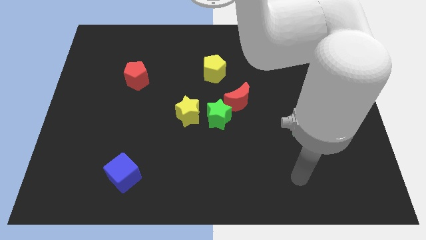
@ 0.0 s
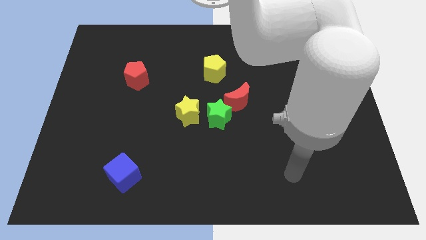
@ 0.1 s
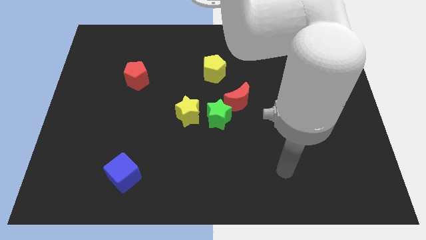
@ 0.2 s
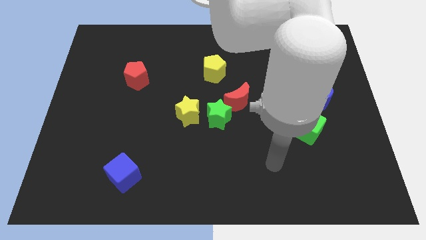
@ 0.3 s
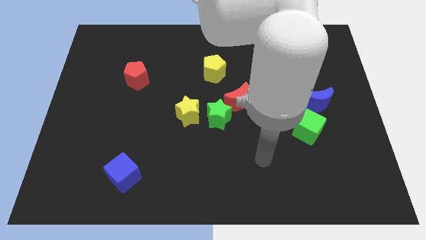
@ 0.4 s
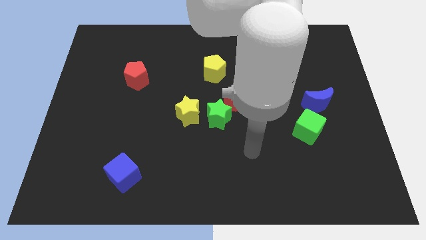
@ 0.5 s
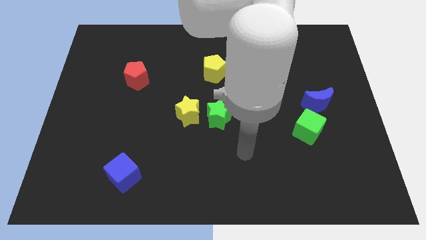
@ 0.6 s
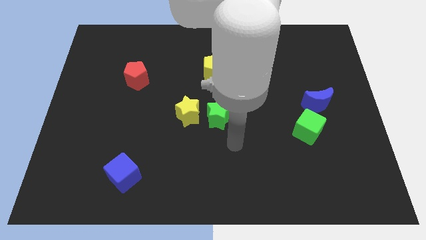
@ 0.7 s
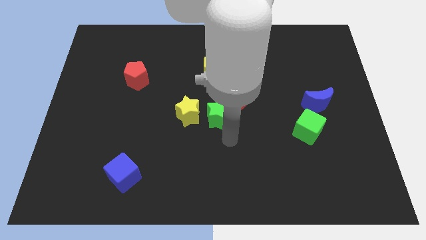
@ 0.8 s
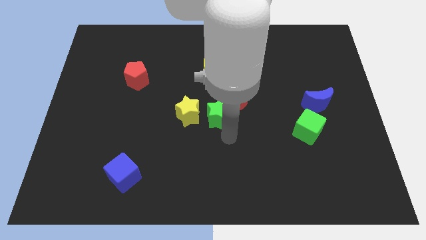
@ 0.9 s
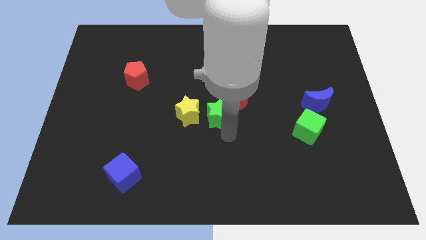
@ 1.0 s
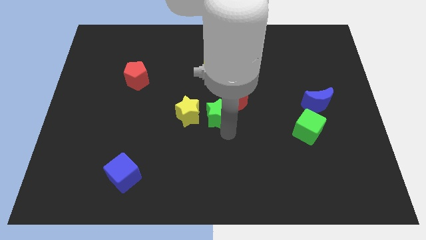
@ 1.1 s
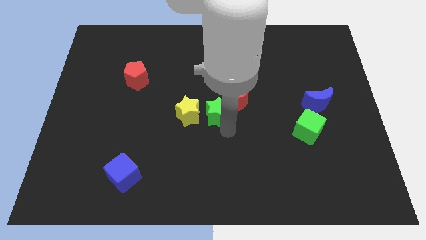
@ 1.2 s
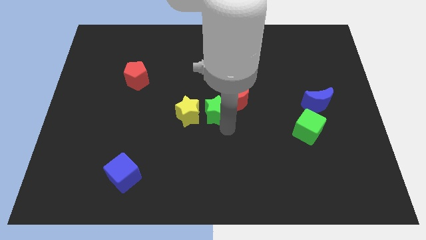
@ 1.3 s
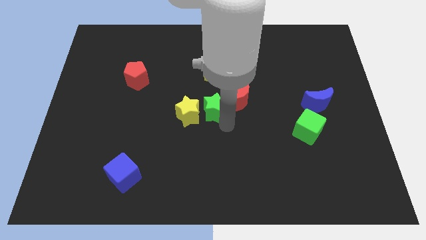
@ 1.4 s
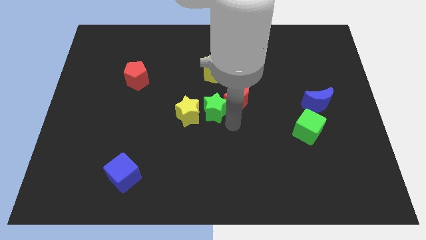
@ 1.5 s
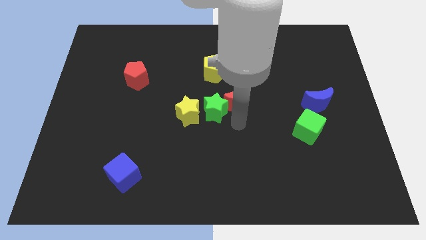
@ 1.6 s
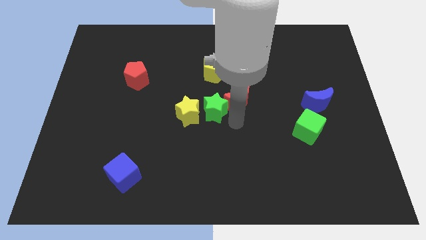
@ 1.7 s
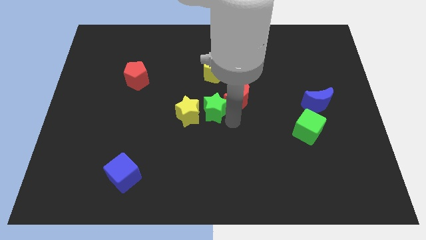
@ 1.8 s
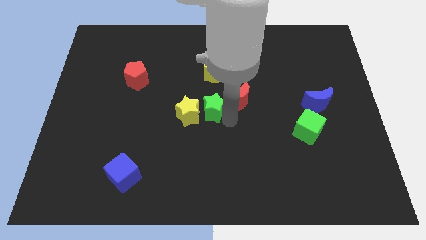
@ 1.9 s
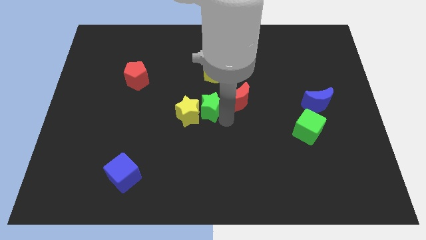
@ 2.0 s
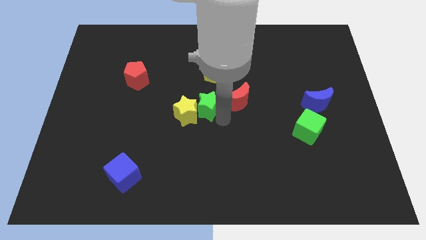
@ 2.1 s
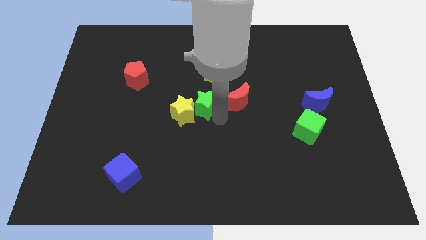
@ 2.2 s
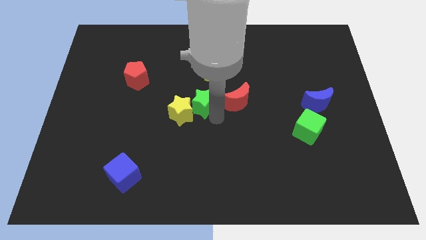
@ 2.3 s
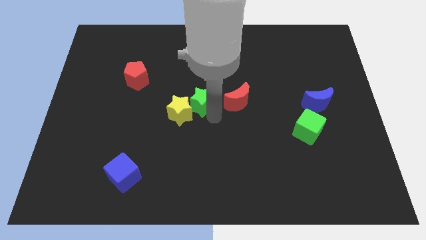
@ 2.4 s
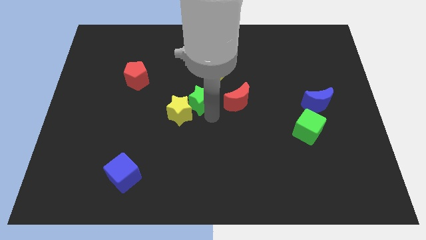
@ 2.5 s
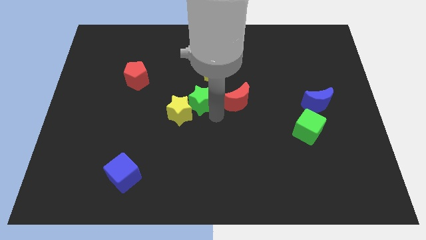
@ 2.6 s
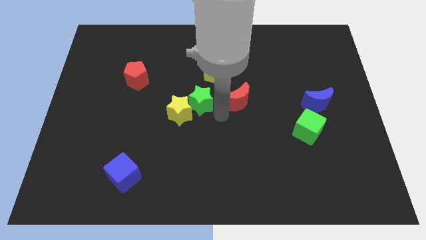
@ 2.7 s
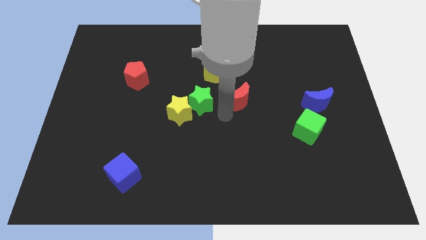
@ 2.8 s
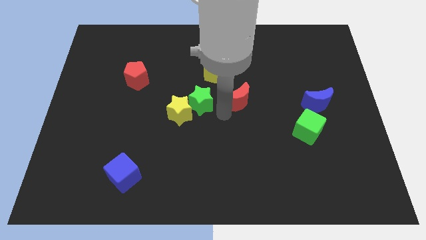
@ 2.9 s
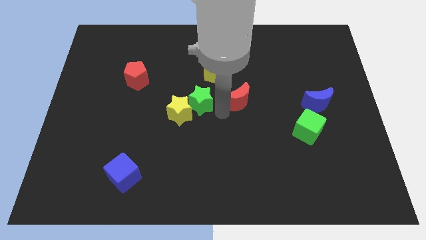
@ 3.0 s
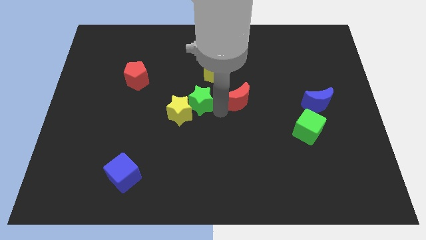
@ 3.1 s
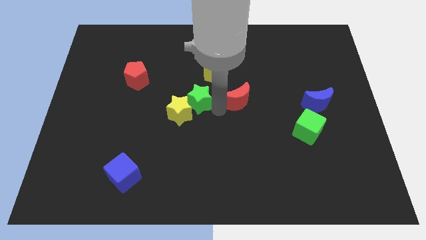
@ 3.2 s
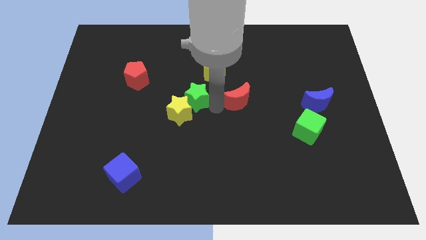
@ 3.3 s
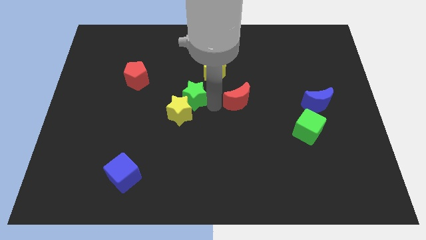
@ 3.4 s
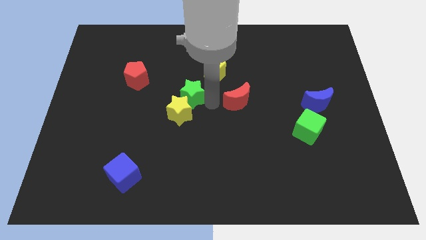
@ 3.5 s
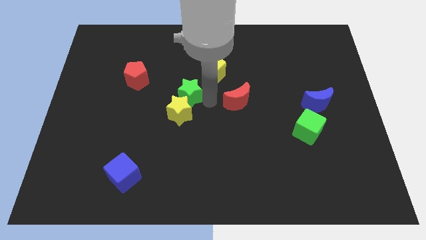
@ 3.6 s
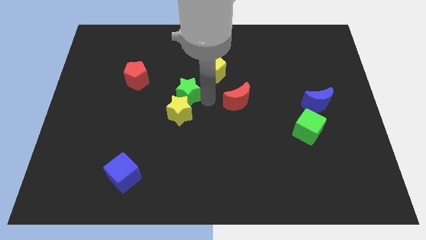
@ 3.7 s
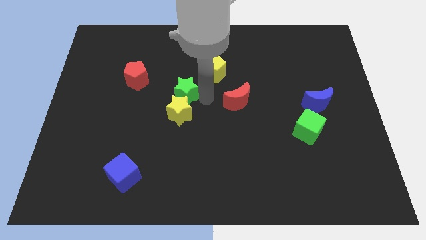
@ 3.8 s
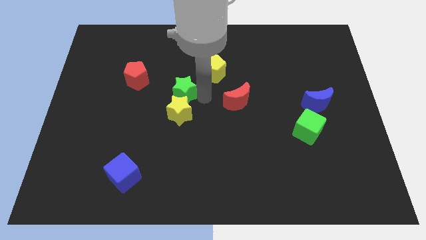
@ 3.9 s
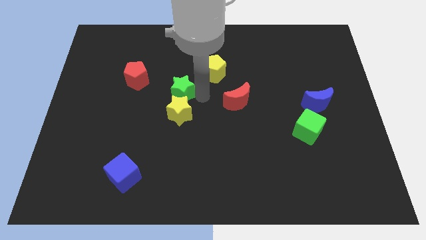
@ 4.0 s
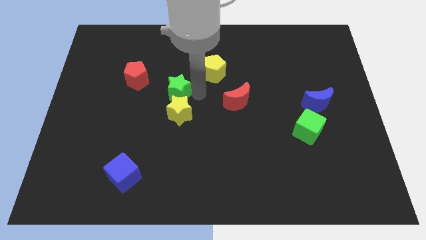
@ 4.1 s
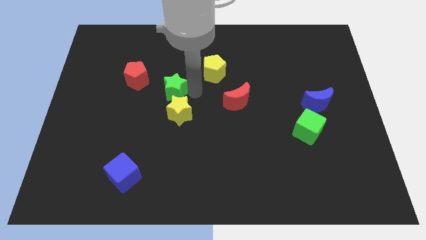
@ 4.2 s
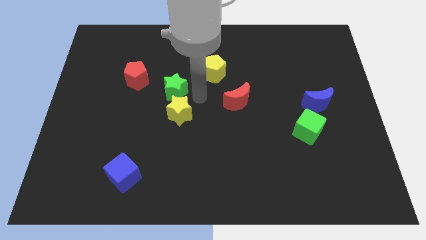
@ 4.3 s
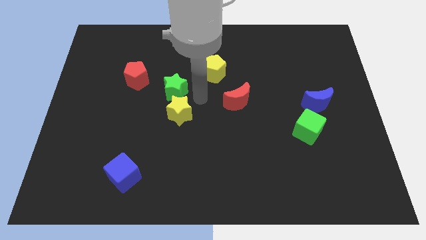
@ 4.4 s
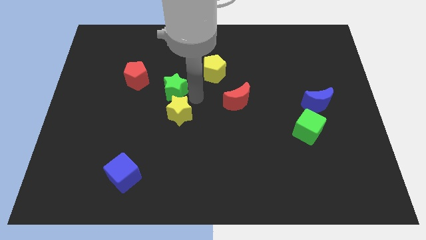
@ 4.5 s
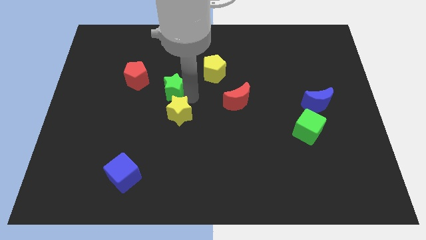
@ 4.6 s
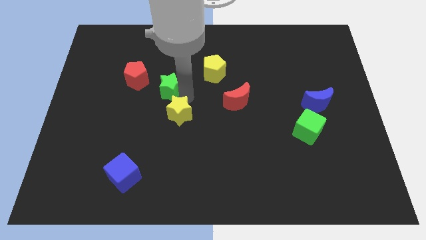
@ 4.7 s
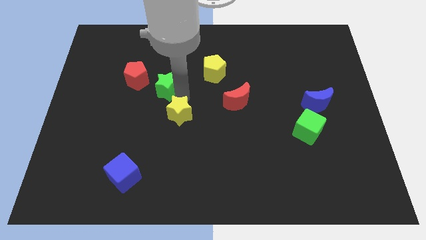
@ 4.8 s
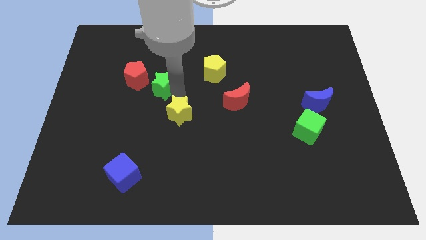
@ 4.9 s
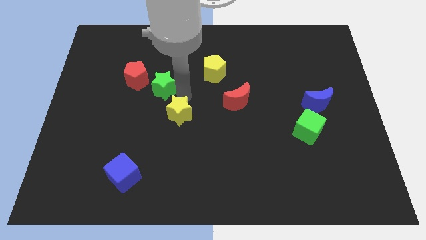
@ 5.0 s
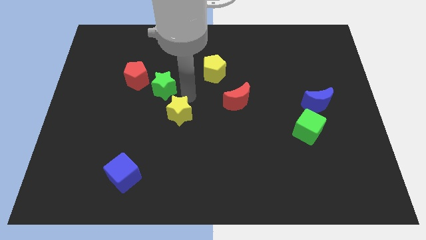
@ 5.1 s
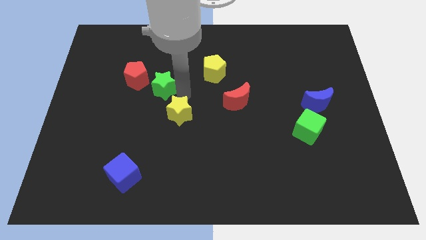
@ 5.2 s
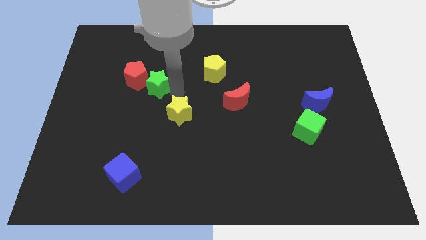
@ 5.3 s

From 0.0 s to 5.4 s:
push the green star to the red pentagon

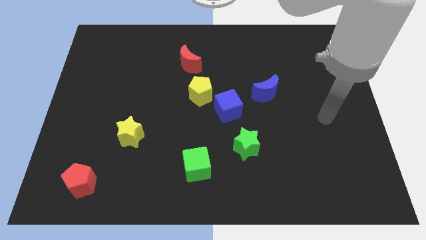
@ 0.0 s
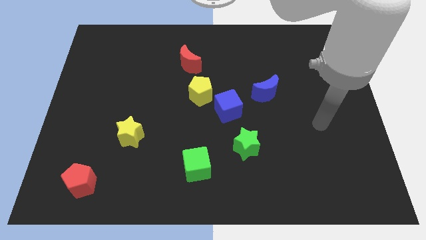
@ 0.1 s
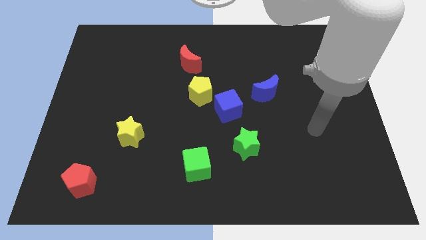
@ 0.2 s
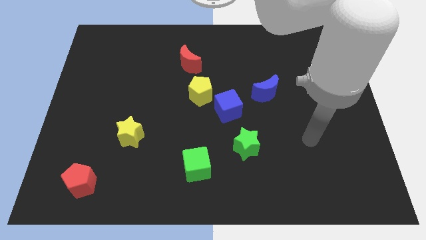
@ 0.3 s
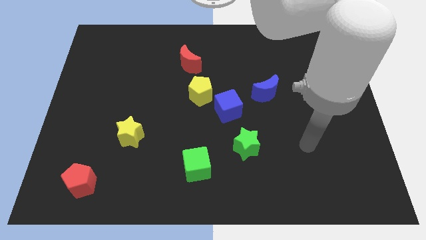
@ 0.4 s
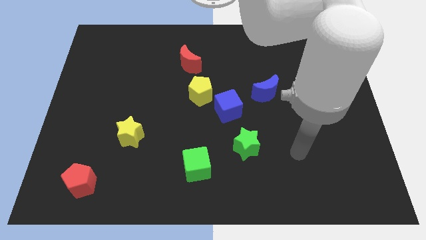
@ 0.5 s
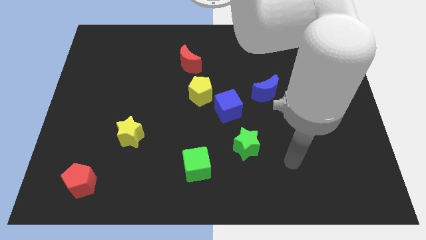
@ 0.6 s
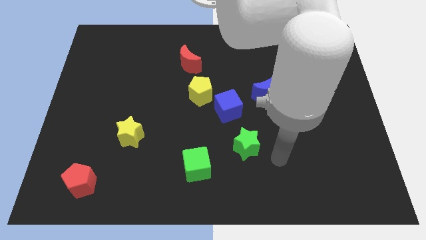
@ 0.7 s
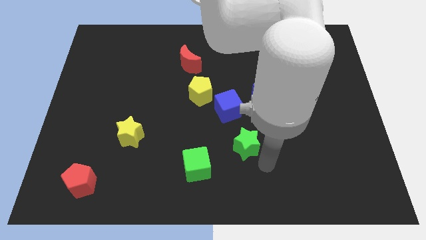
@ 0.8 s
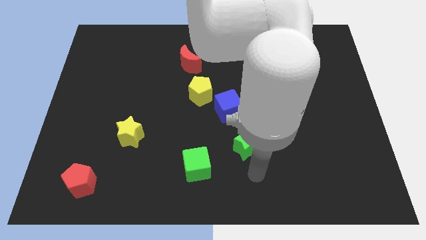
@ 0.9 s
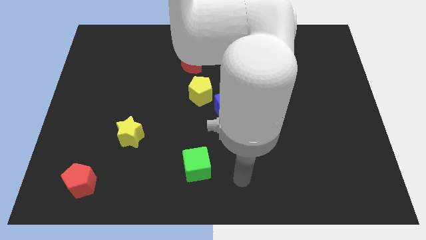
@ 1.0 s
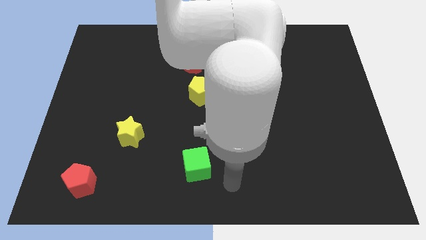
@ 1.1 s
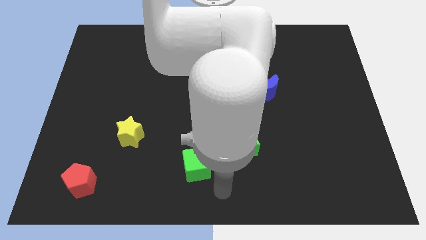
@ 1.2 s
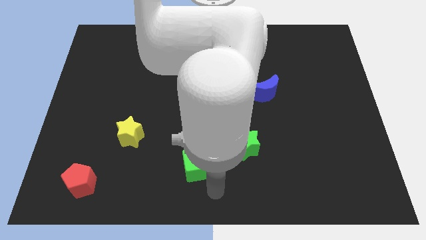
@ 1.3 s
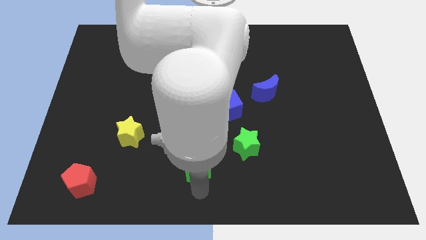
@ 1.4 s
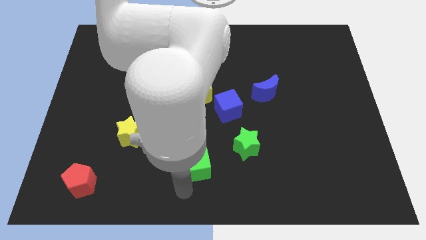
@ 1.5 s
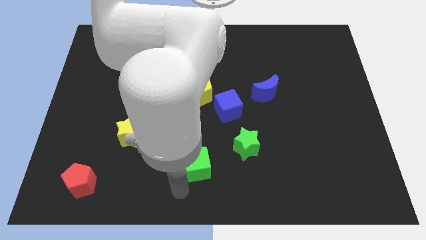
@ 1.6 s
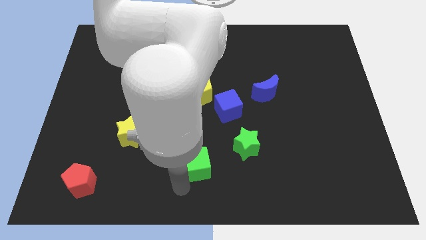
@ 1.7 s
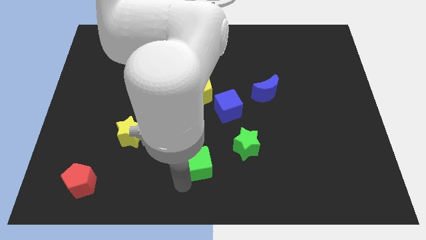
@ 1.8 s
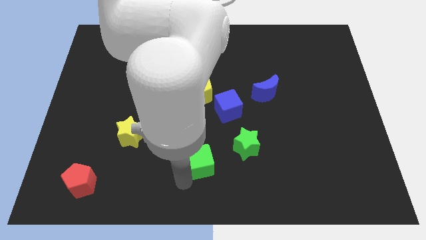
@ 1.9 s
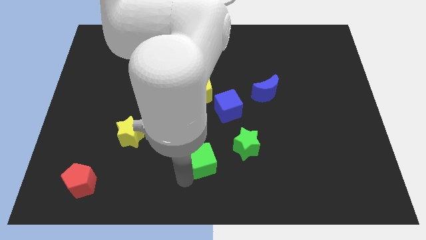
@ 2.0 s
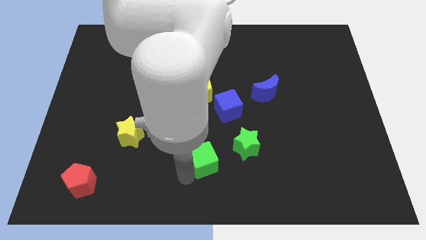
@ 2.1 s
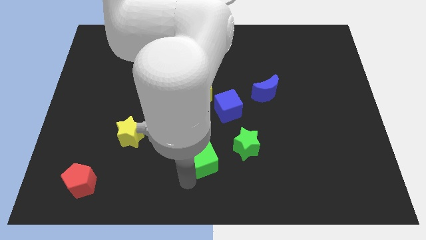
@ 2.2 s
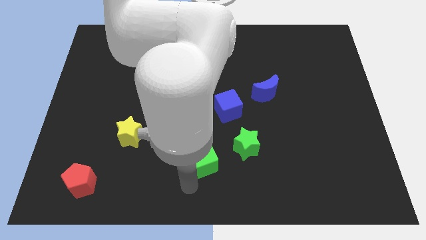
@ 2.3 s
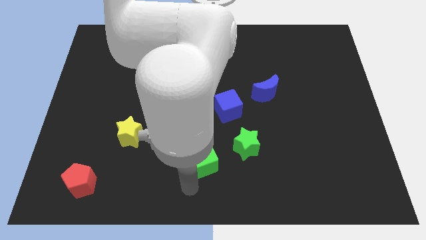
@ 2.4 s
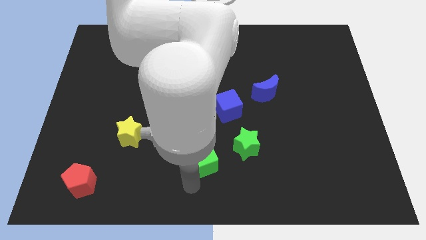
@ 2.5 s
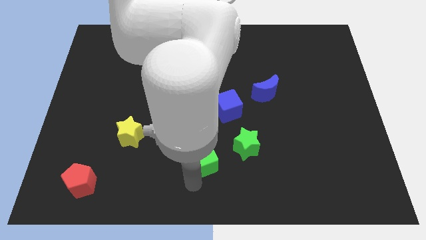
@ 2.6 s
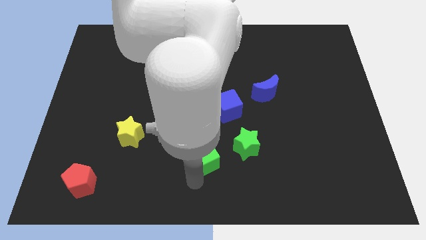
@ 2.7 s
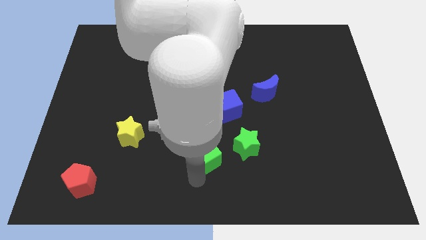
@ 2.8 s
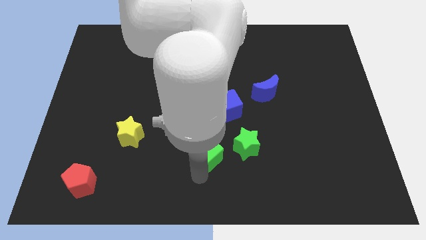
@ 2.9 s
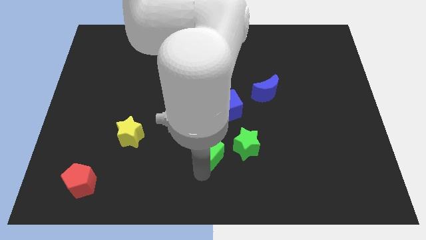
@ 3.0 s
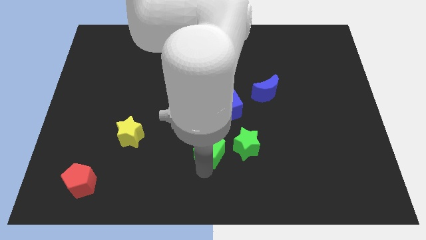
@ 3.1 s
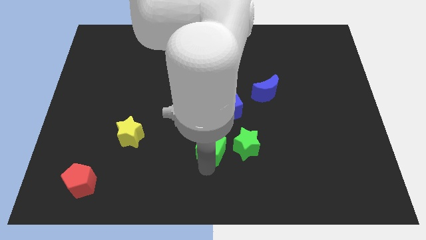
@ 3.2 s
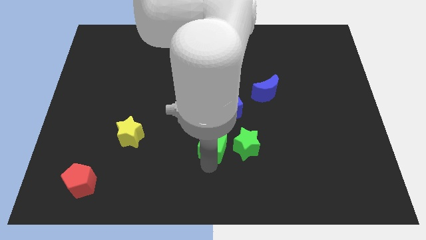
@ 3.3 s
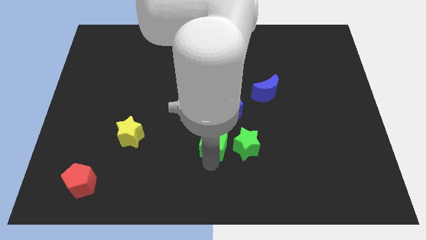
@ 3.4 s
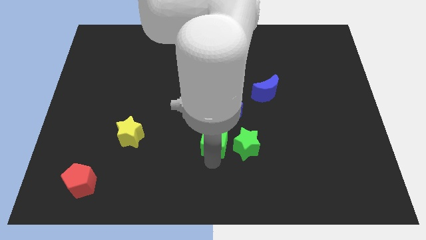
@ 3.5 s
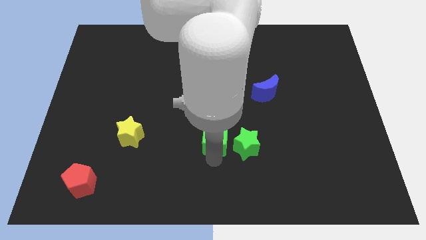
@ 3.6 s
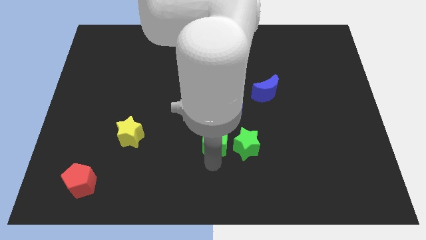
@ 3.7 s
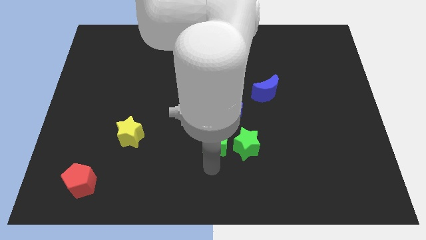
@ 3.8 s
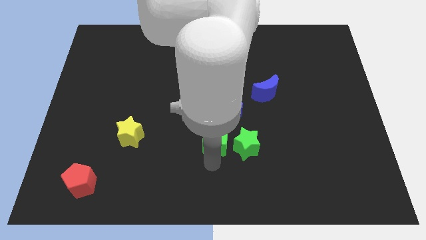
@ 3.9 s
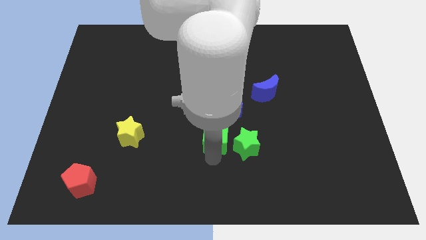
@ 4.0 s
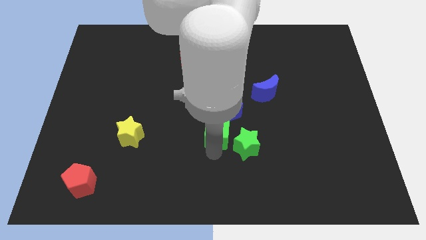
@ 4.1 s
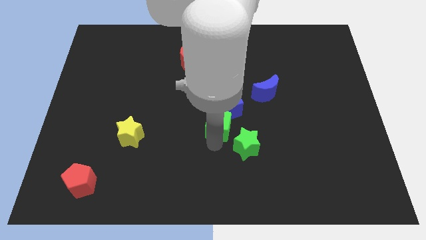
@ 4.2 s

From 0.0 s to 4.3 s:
put the green cube close to the blue cube
